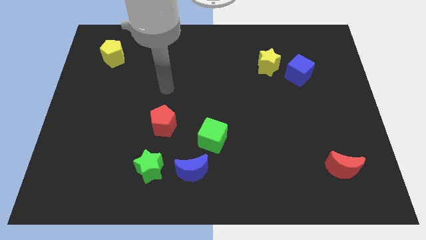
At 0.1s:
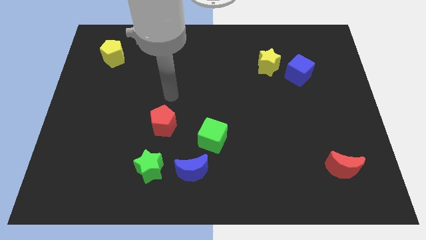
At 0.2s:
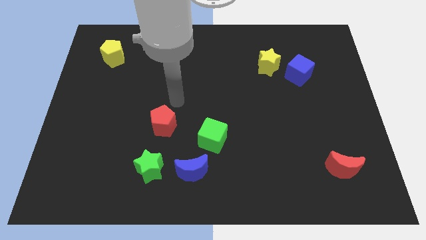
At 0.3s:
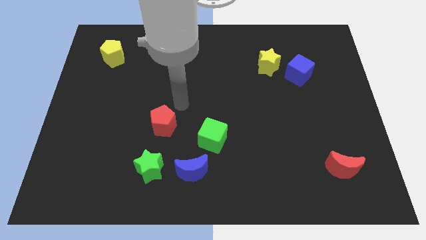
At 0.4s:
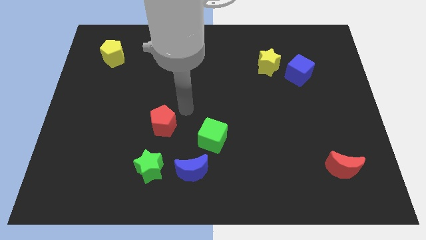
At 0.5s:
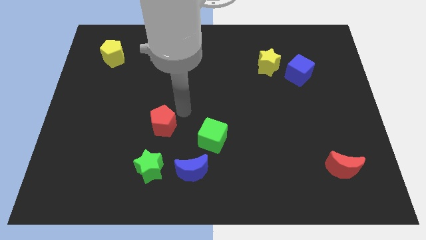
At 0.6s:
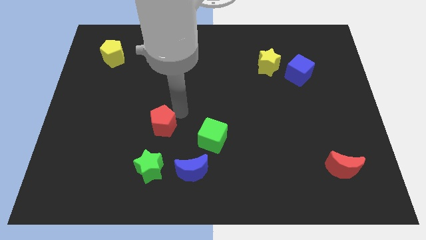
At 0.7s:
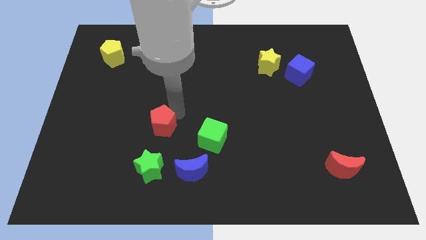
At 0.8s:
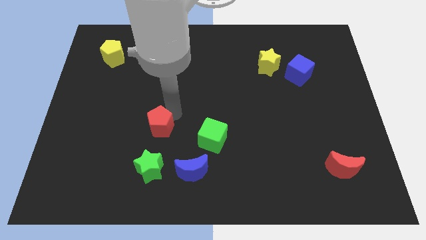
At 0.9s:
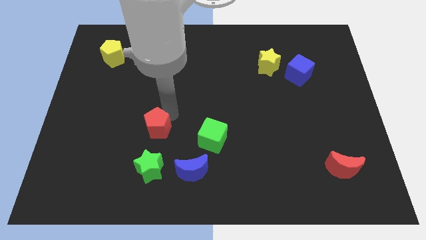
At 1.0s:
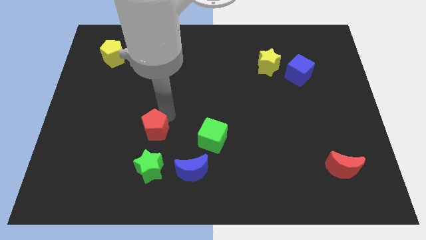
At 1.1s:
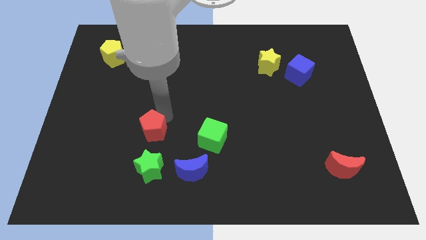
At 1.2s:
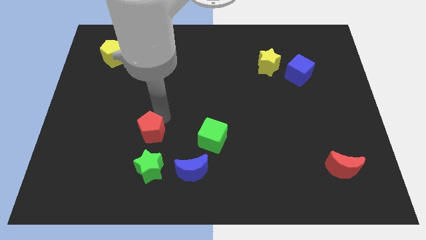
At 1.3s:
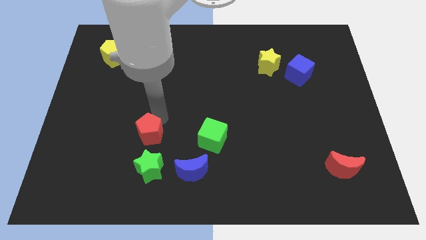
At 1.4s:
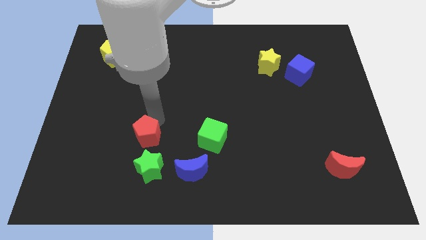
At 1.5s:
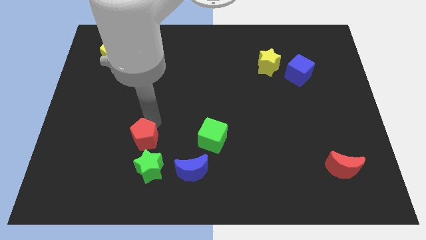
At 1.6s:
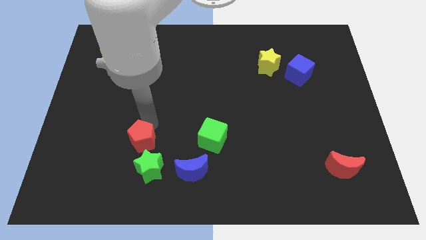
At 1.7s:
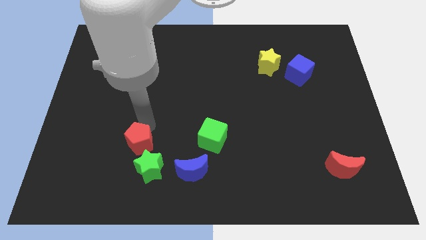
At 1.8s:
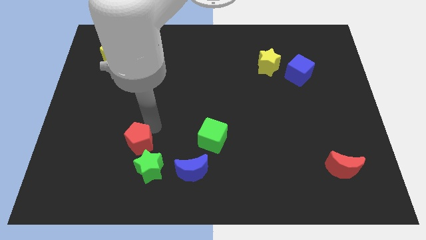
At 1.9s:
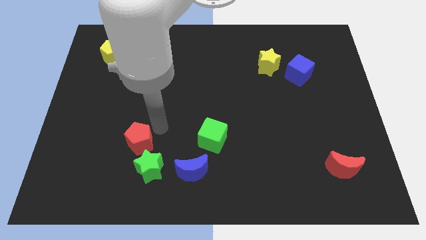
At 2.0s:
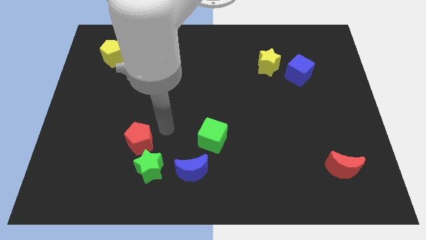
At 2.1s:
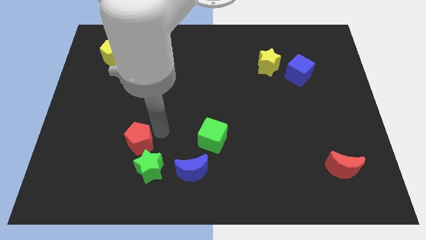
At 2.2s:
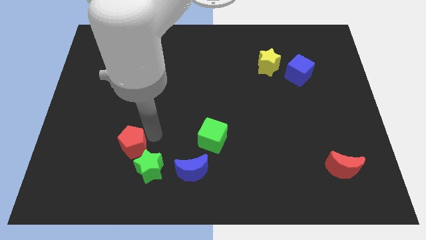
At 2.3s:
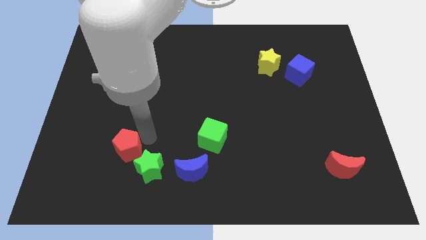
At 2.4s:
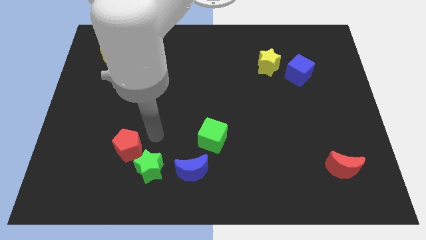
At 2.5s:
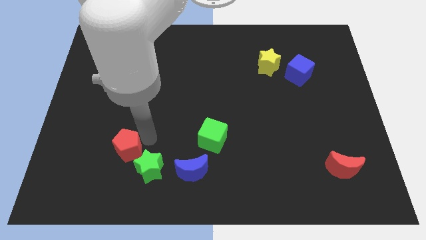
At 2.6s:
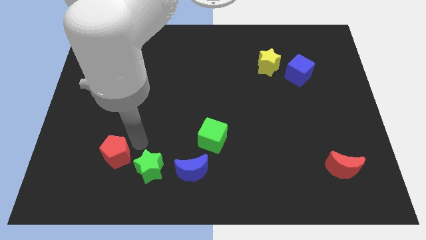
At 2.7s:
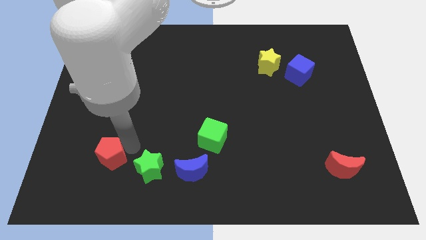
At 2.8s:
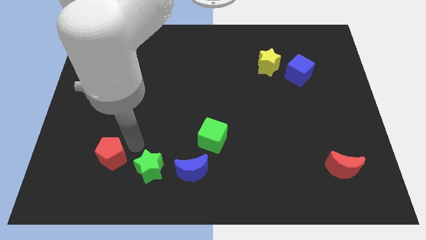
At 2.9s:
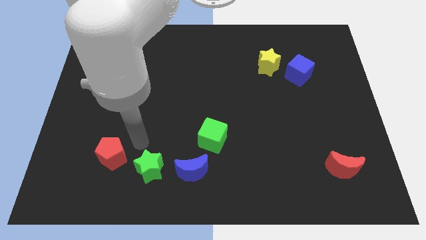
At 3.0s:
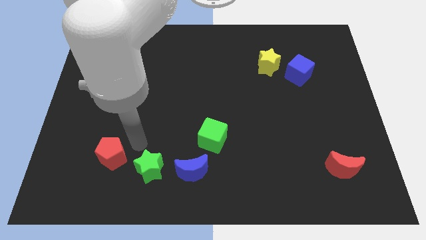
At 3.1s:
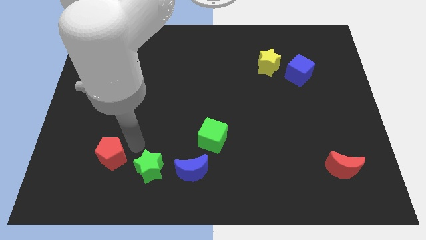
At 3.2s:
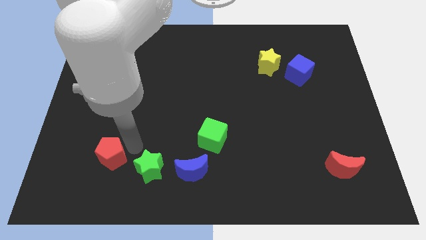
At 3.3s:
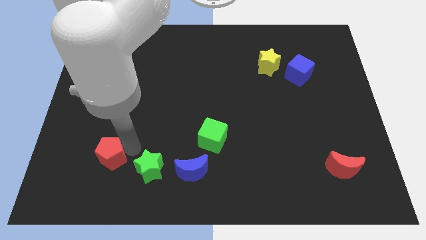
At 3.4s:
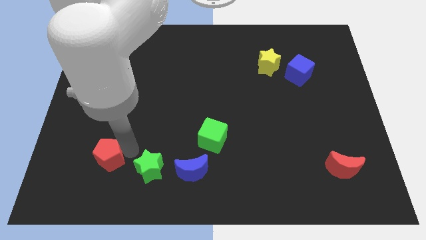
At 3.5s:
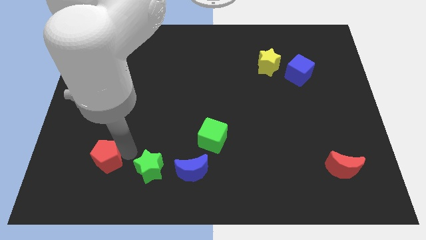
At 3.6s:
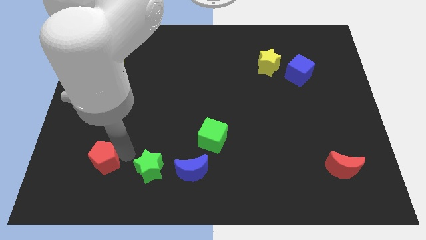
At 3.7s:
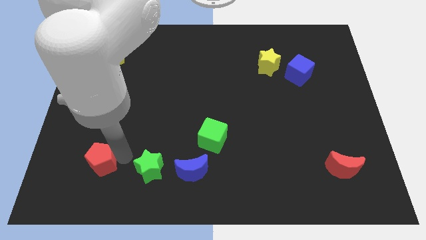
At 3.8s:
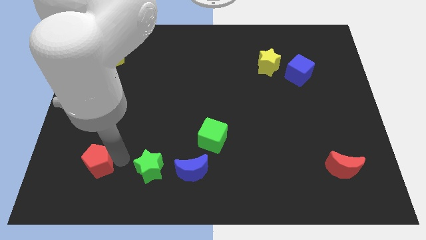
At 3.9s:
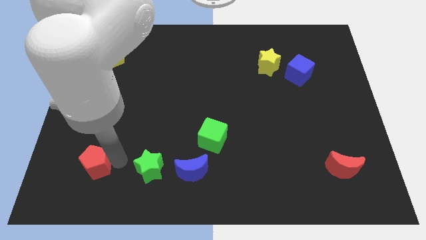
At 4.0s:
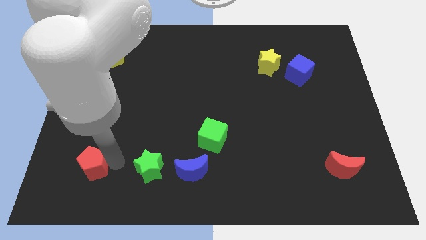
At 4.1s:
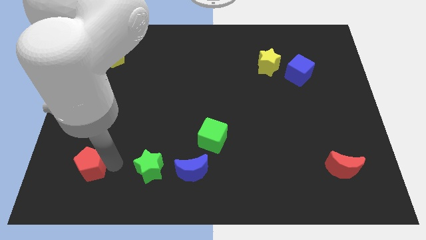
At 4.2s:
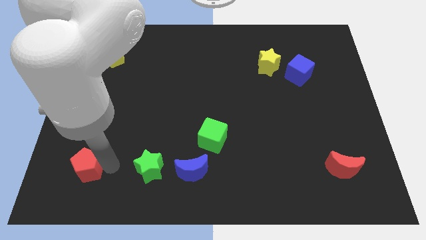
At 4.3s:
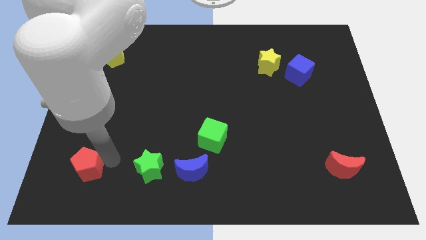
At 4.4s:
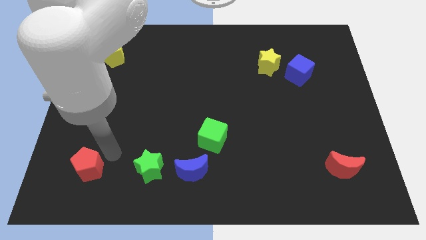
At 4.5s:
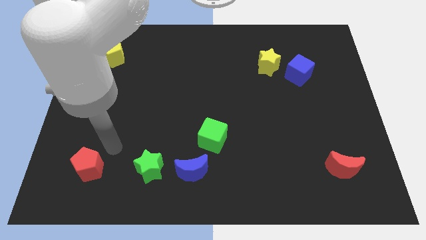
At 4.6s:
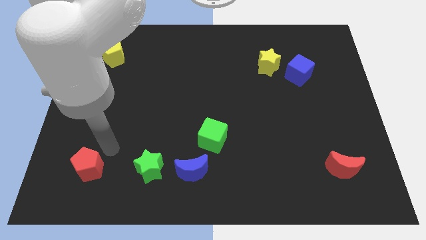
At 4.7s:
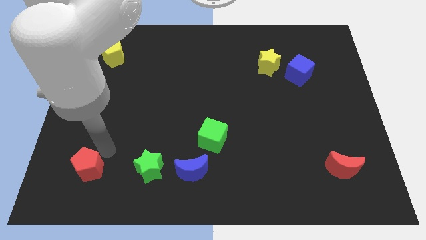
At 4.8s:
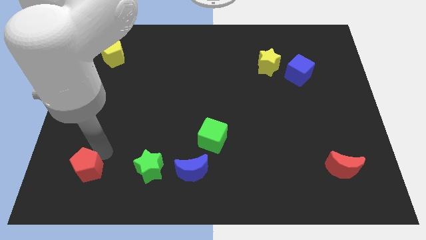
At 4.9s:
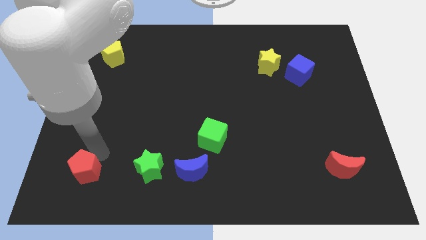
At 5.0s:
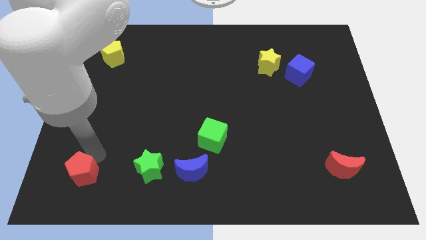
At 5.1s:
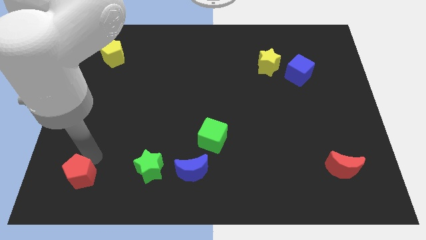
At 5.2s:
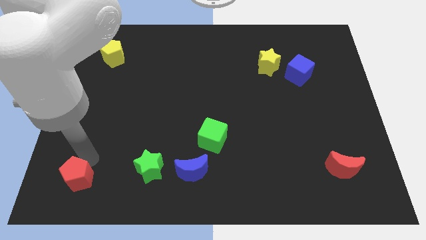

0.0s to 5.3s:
move the red pentagon to the lower left corner

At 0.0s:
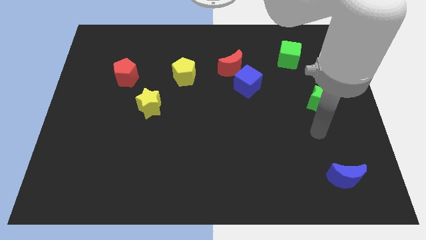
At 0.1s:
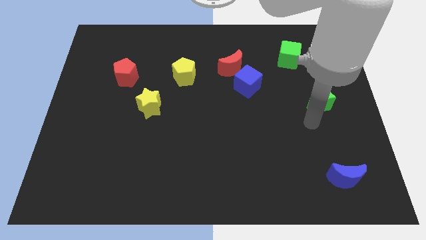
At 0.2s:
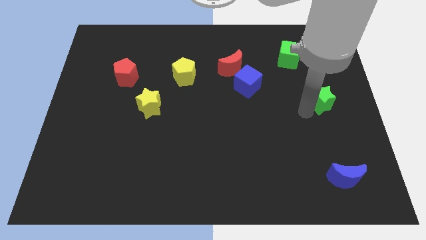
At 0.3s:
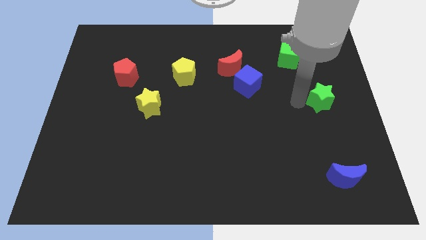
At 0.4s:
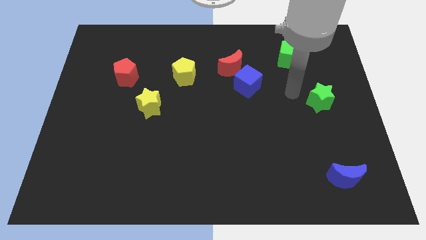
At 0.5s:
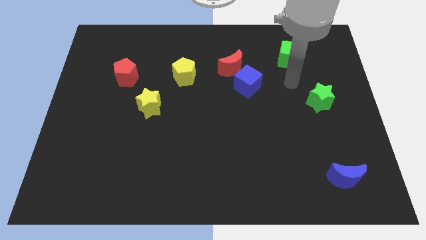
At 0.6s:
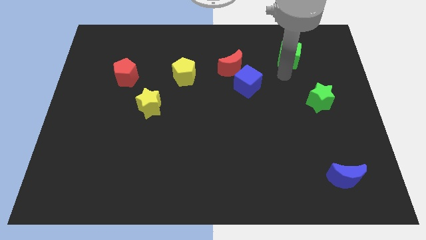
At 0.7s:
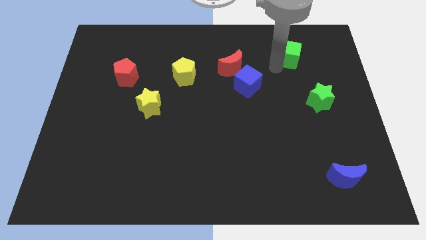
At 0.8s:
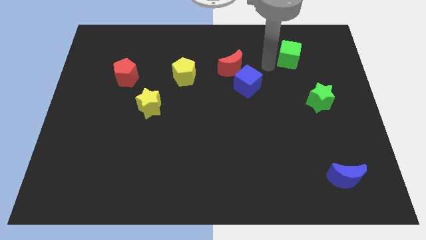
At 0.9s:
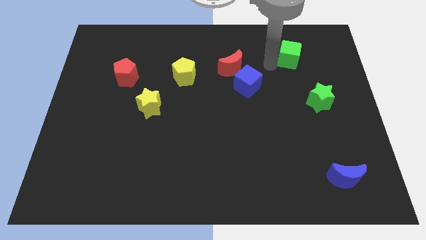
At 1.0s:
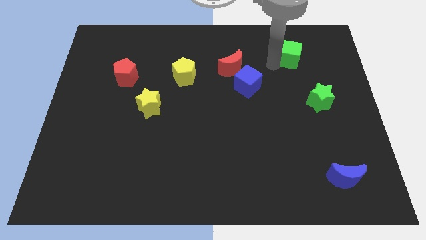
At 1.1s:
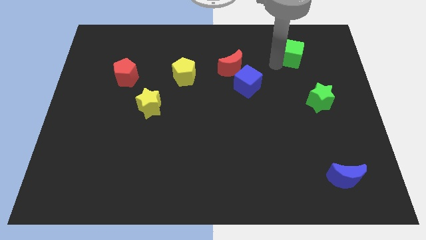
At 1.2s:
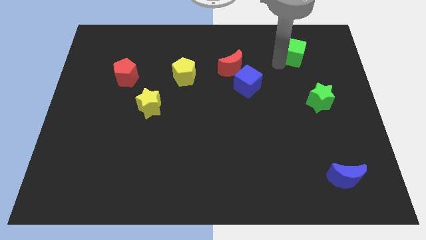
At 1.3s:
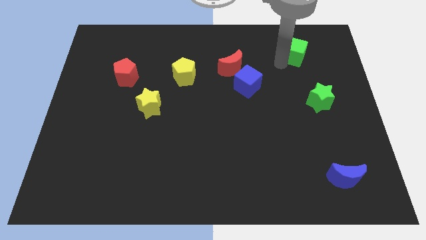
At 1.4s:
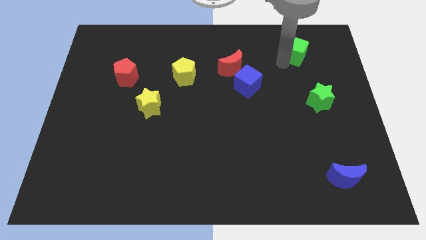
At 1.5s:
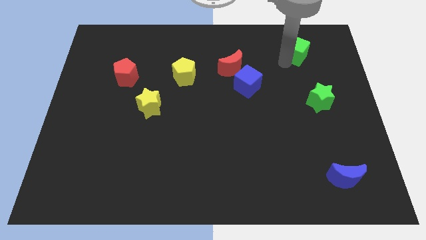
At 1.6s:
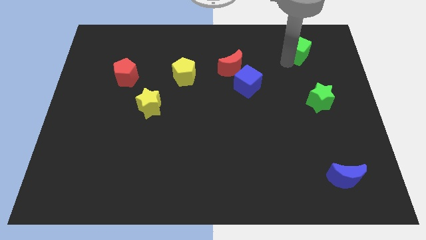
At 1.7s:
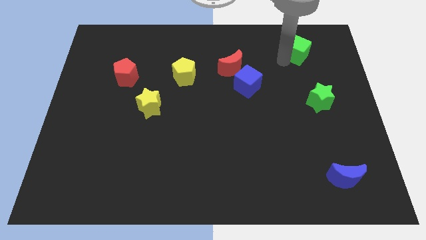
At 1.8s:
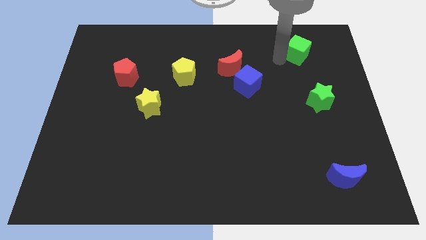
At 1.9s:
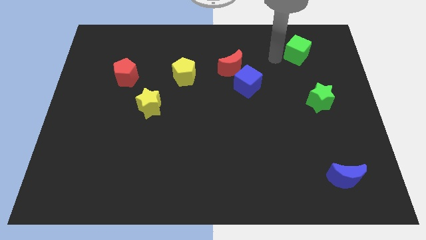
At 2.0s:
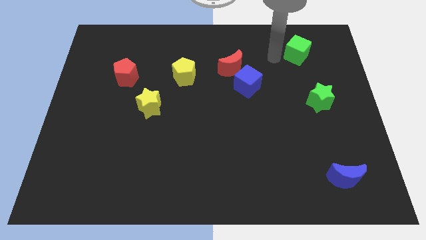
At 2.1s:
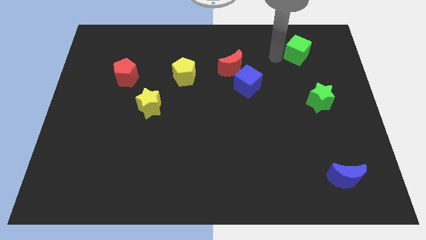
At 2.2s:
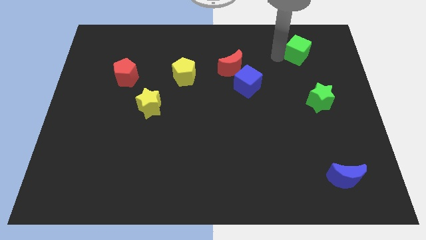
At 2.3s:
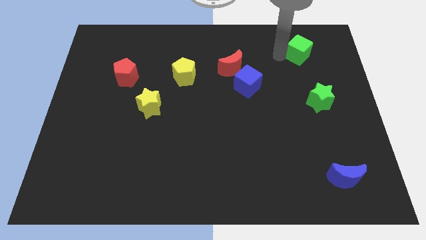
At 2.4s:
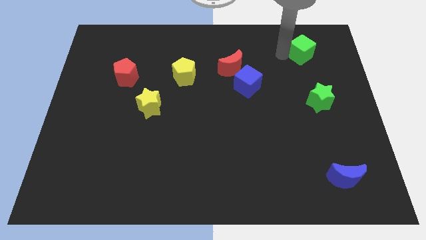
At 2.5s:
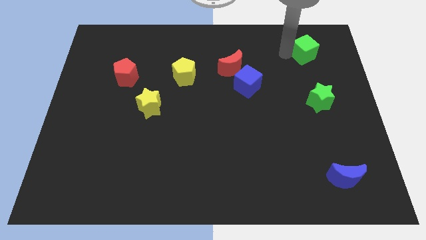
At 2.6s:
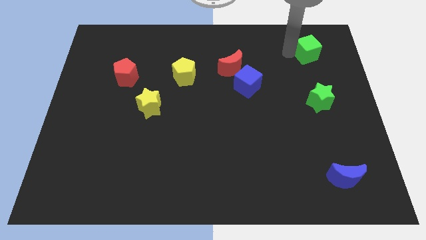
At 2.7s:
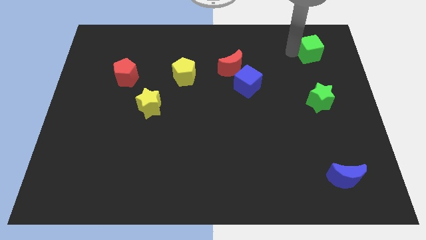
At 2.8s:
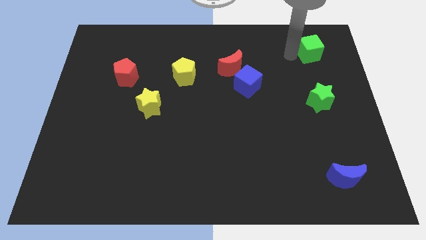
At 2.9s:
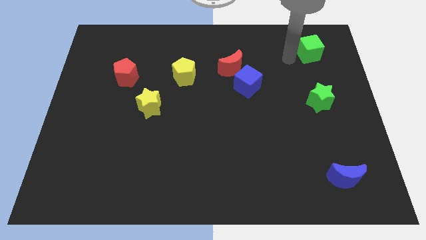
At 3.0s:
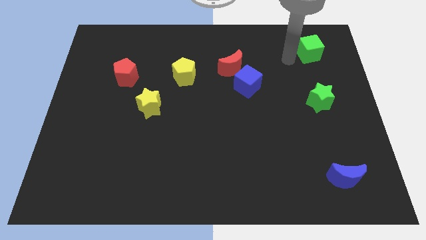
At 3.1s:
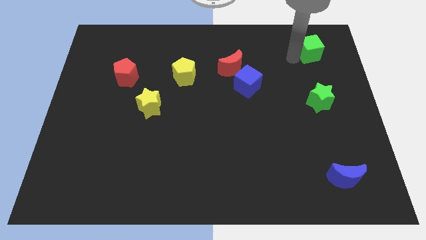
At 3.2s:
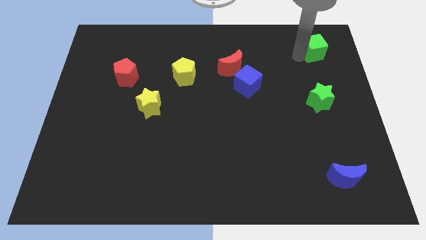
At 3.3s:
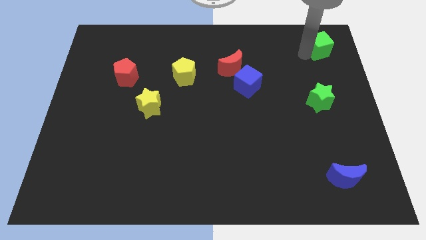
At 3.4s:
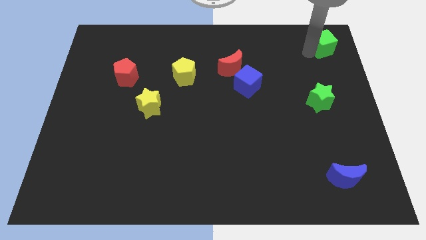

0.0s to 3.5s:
slide the green cube to the top right
